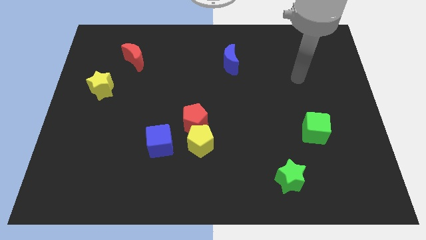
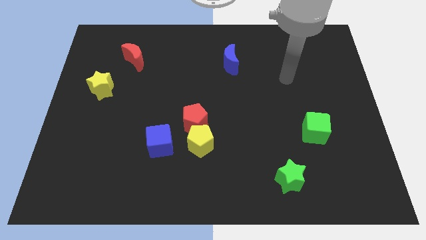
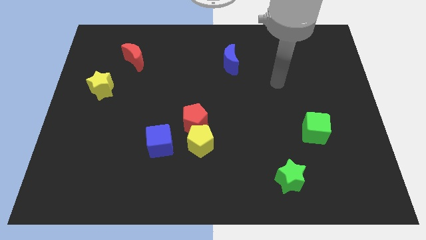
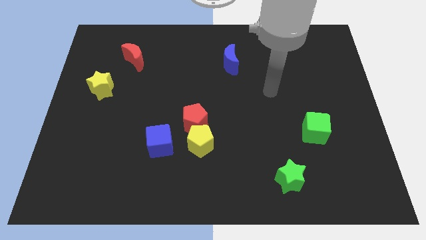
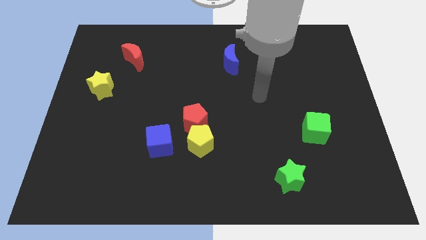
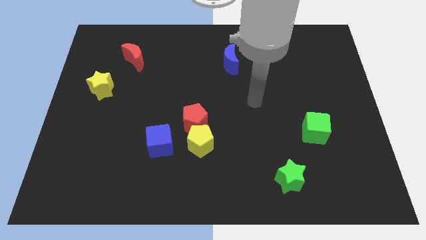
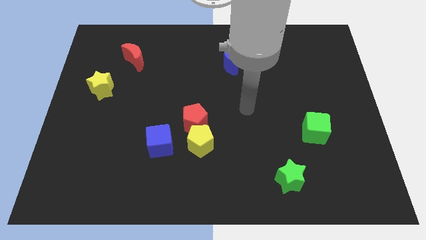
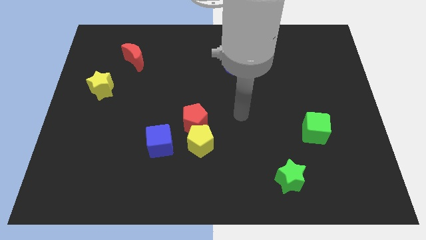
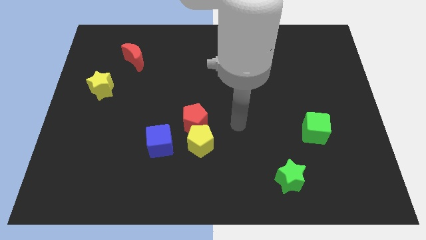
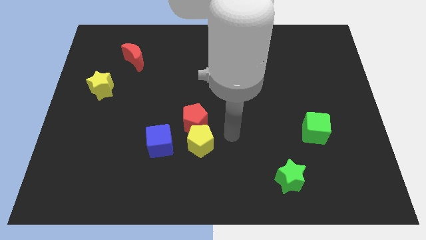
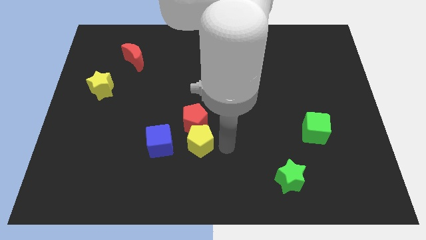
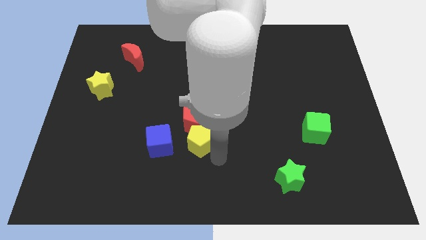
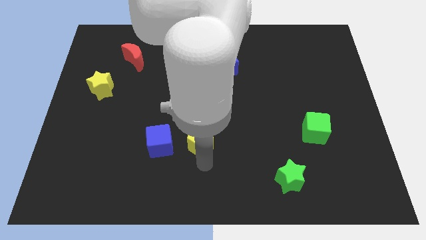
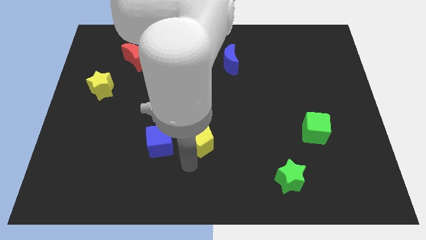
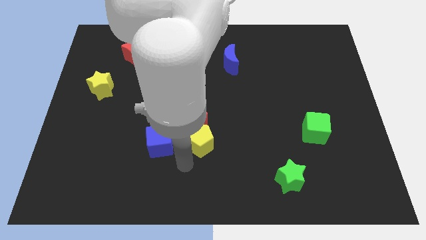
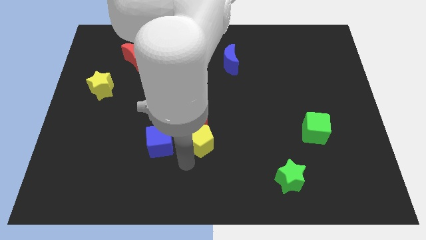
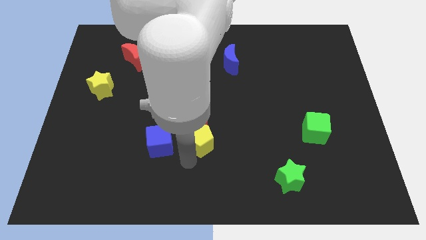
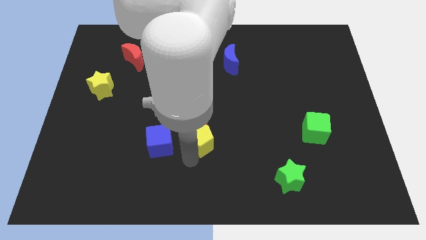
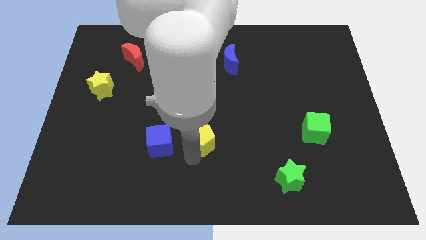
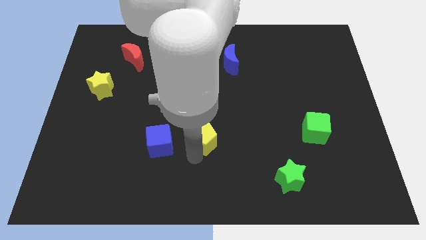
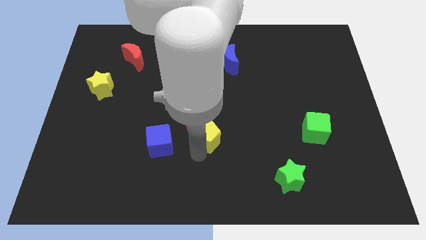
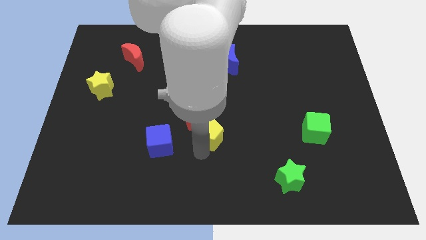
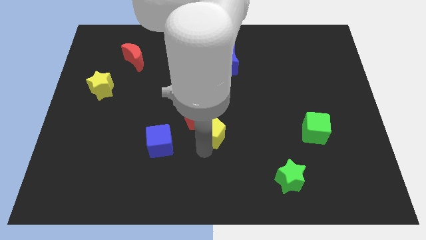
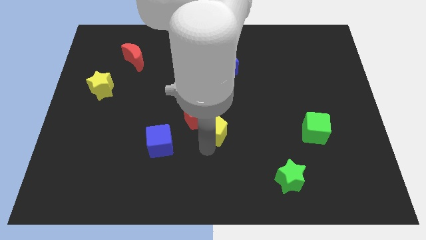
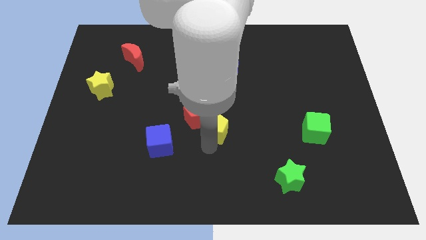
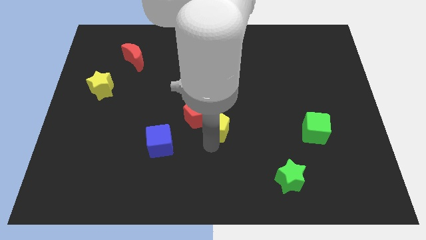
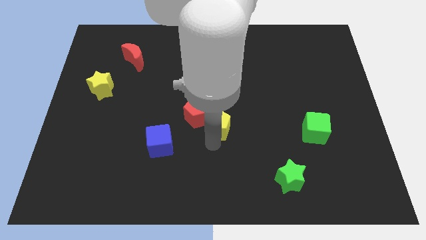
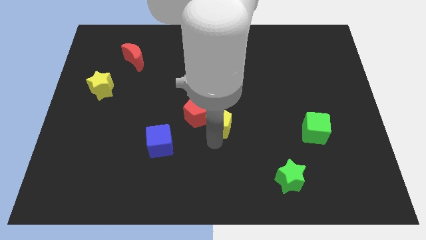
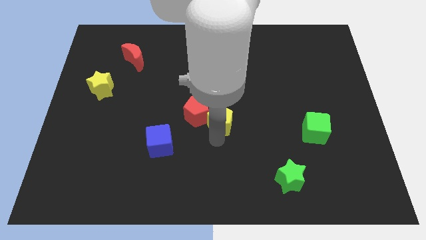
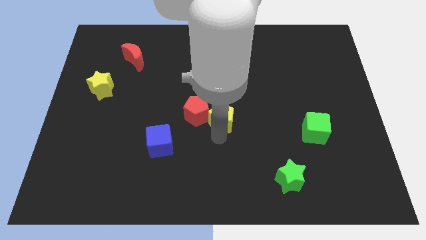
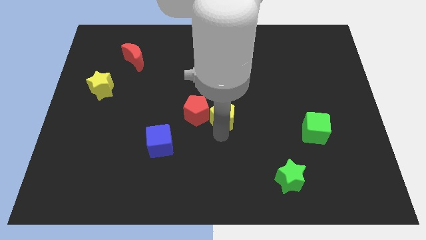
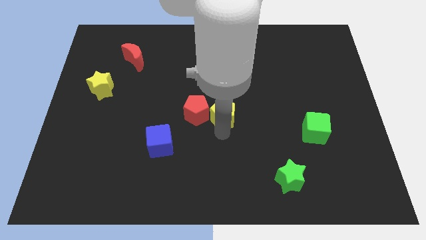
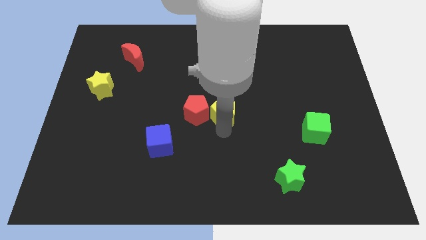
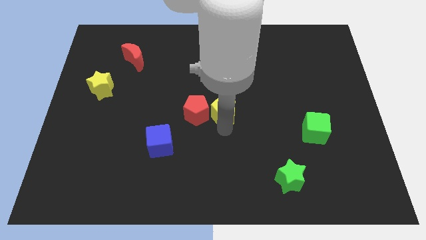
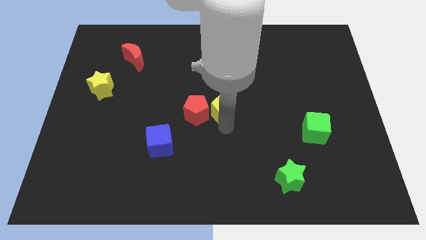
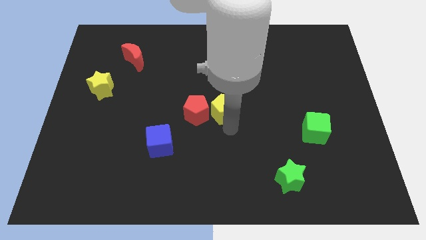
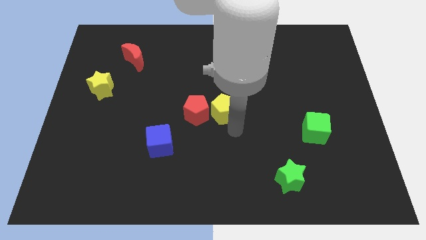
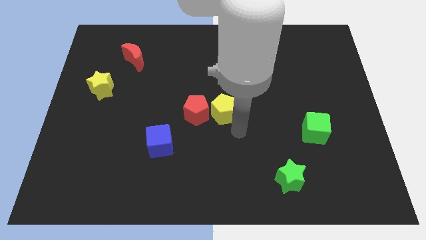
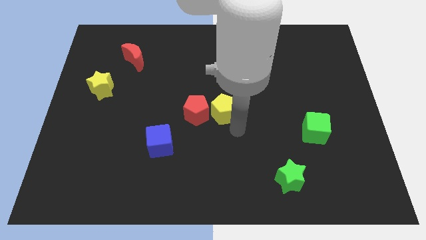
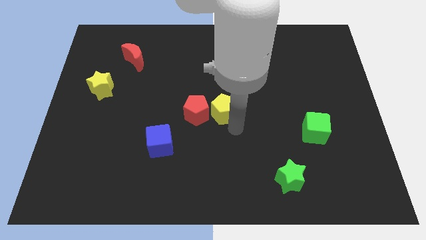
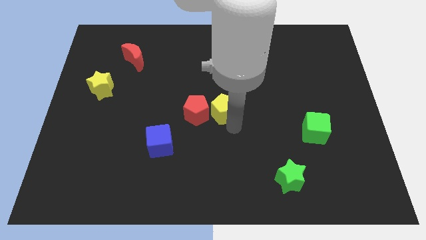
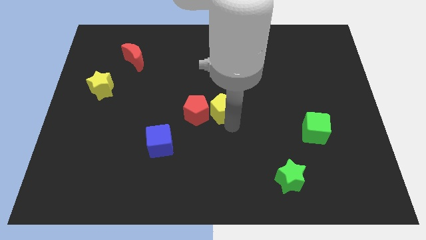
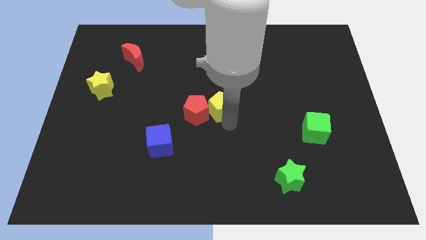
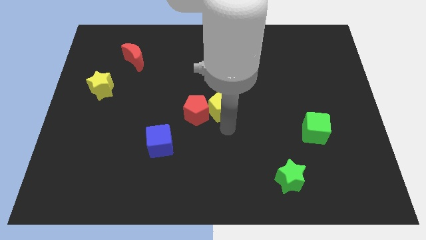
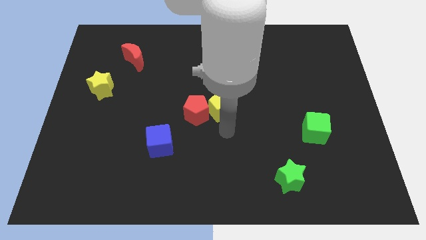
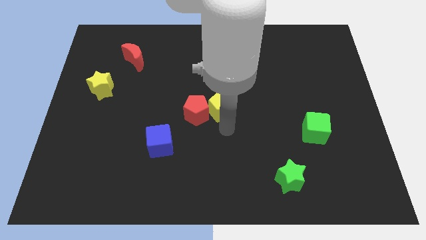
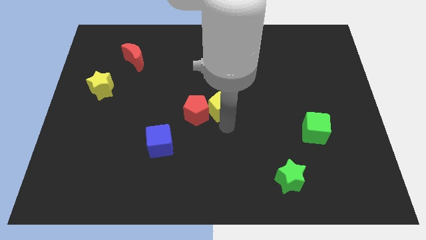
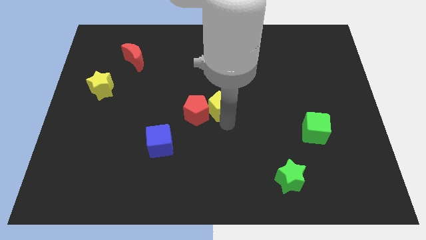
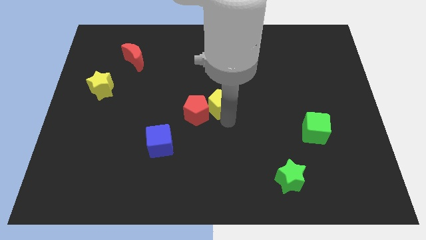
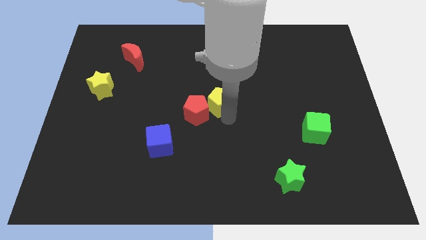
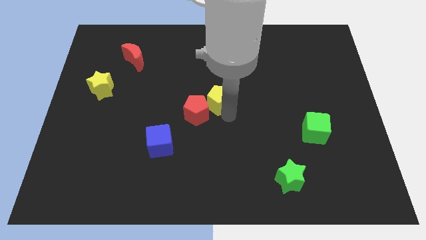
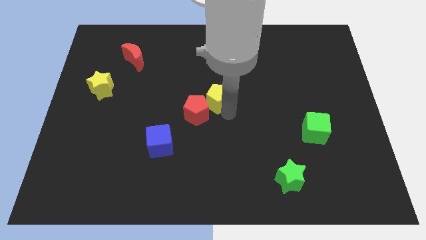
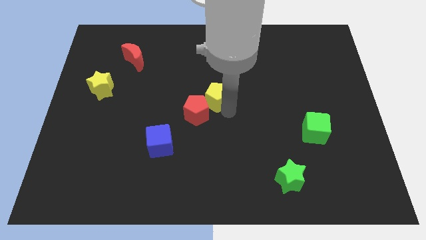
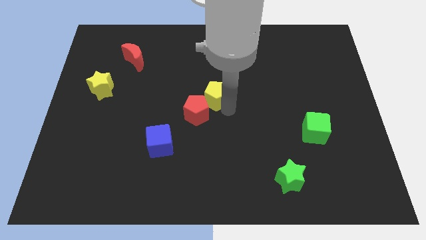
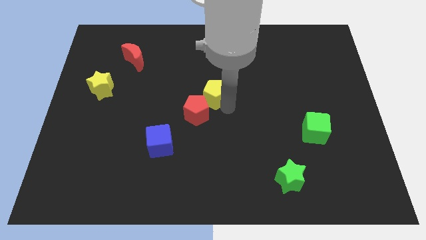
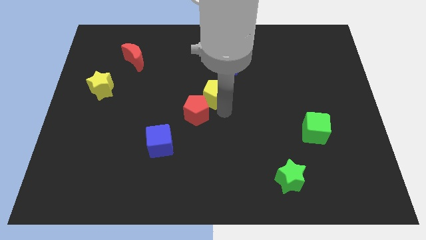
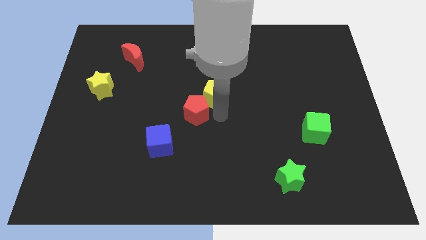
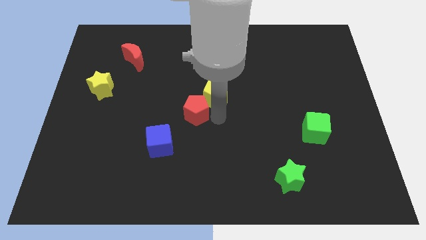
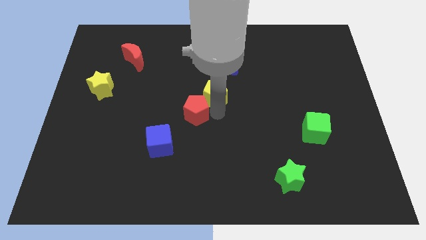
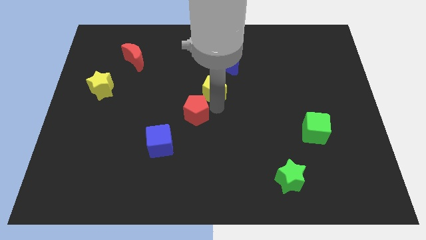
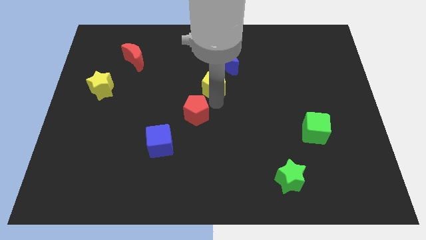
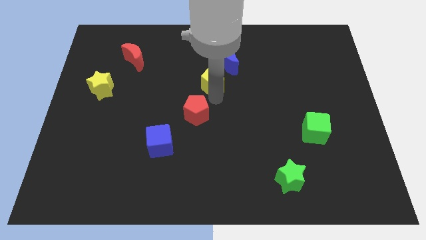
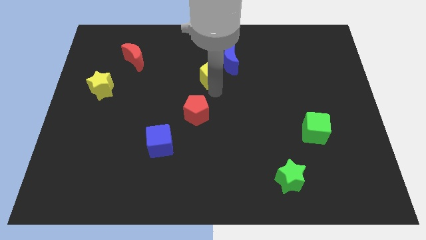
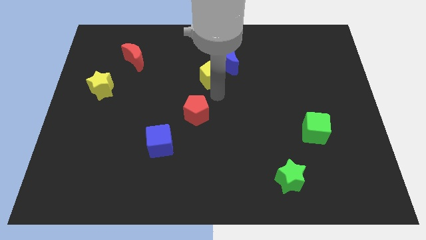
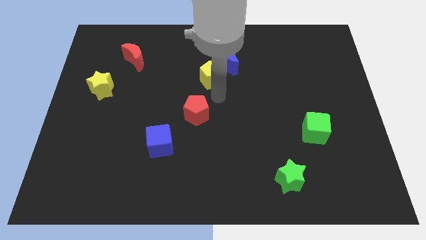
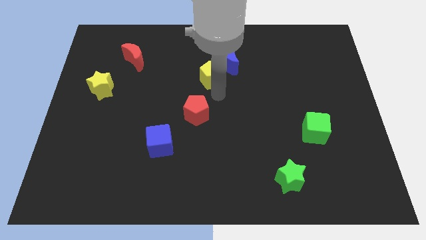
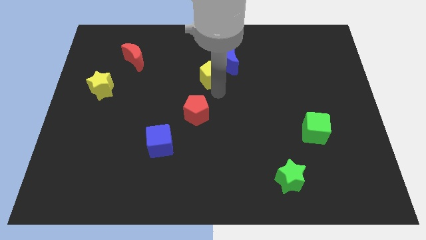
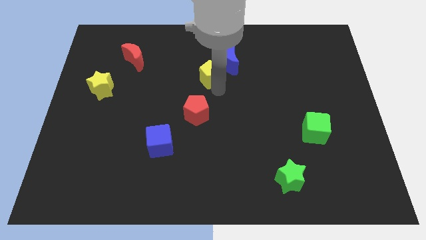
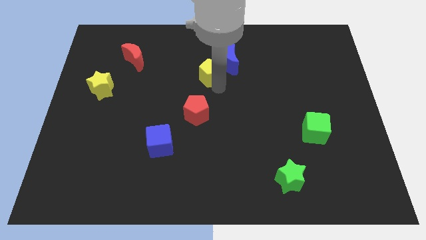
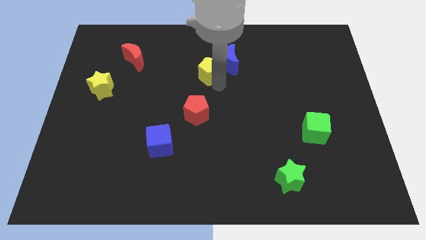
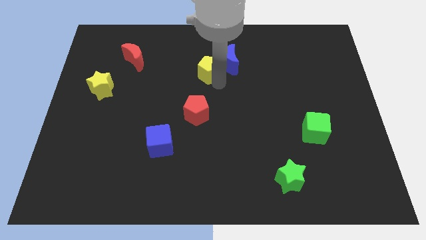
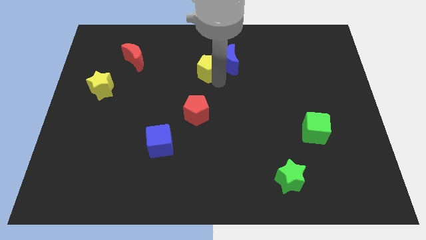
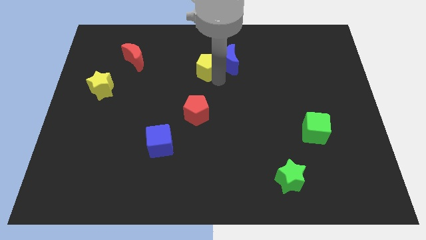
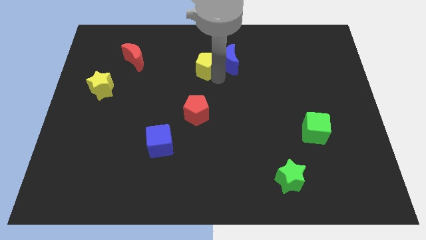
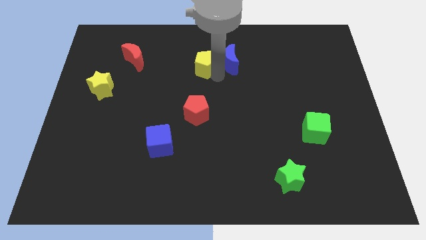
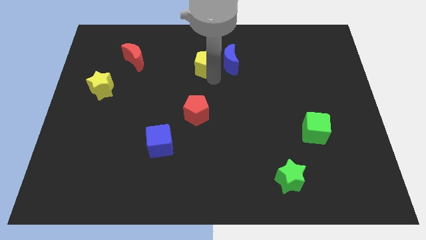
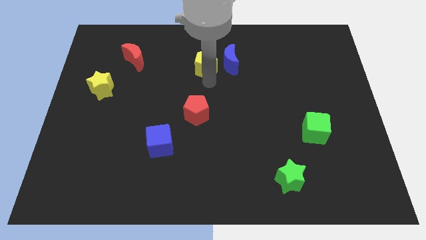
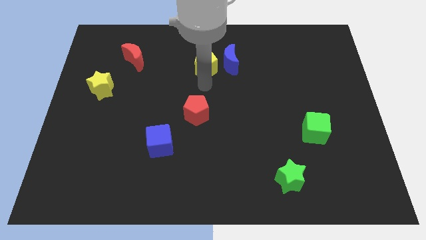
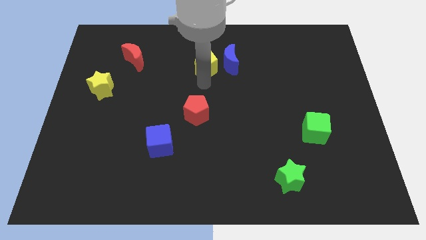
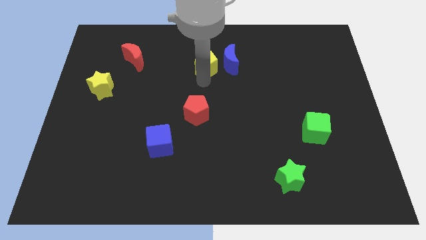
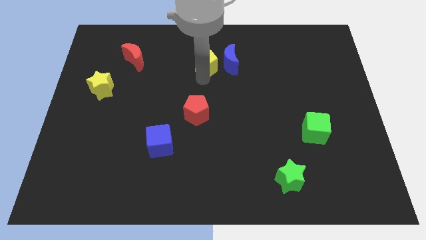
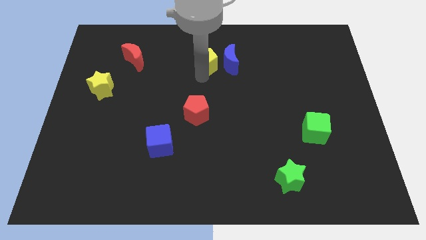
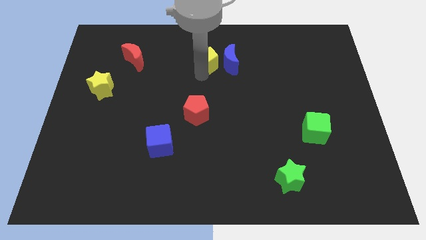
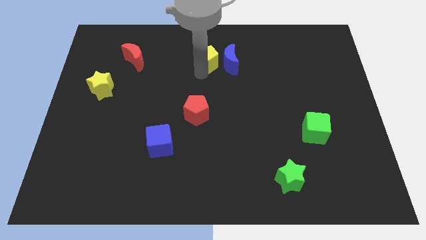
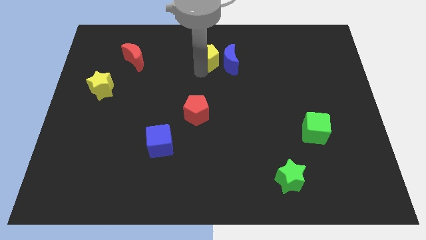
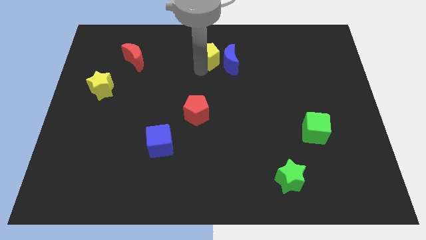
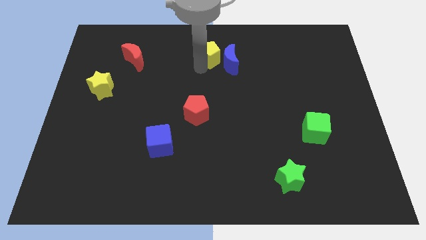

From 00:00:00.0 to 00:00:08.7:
push the yellow pentagon to the towards your base
